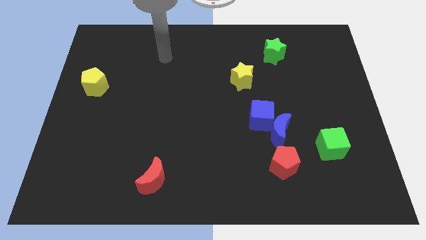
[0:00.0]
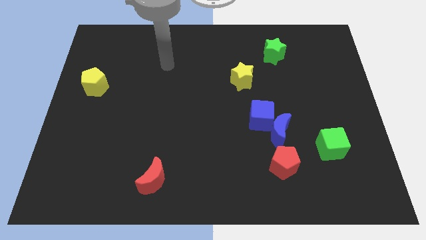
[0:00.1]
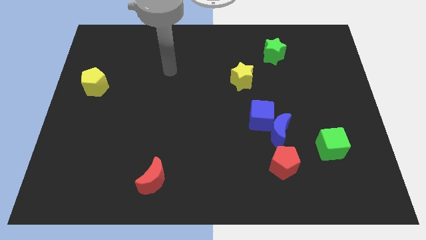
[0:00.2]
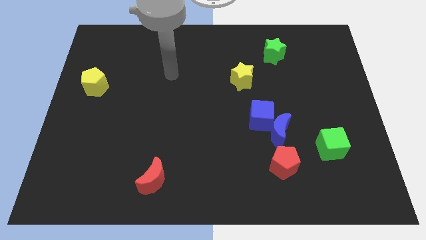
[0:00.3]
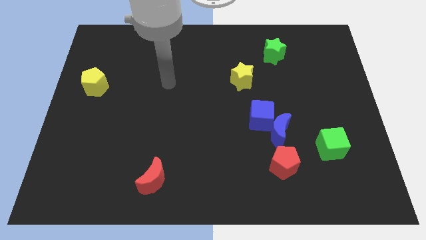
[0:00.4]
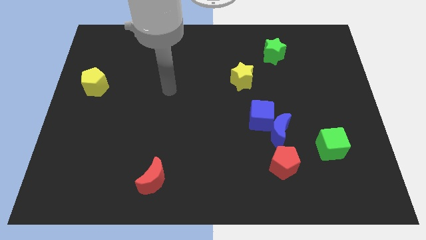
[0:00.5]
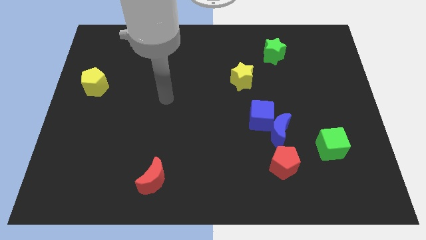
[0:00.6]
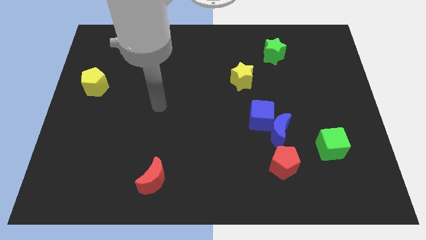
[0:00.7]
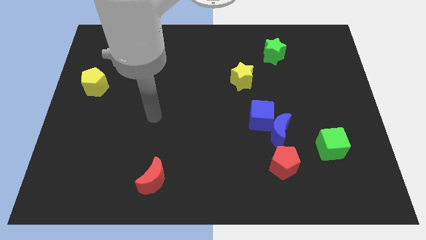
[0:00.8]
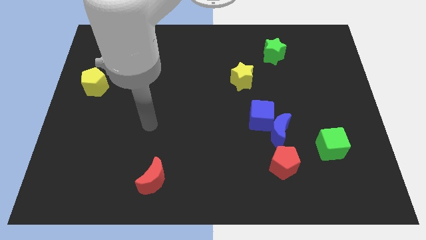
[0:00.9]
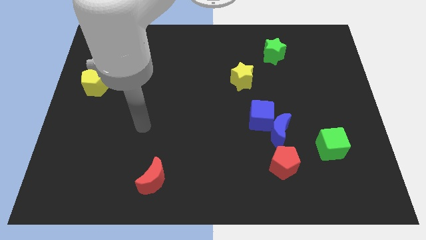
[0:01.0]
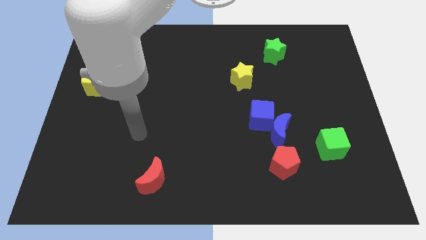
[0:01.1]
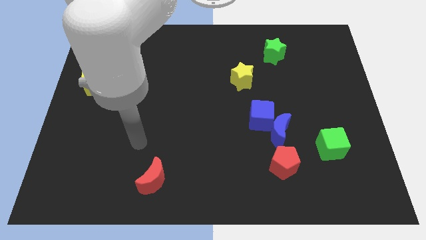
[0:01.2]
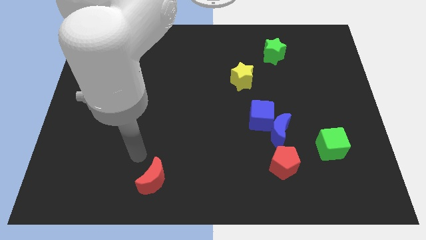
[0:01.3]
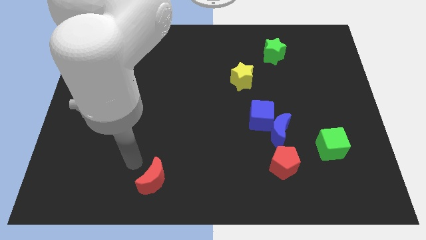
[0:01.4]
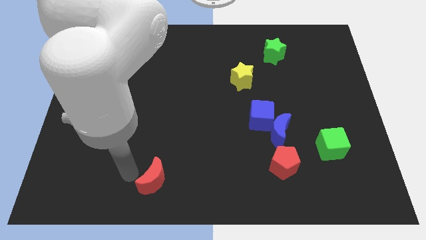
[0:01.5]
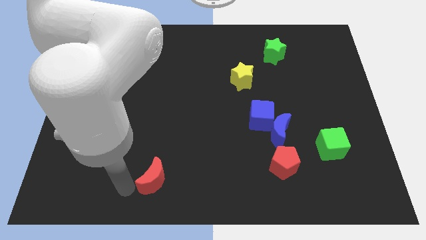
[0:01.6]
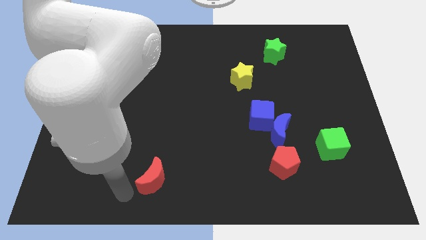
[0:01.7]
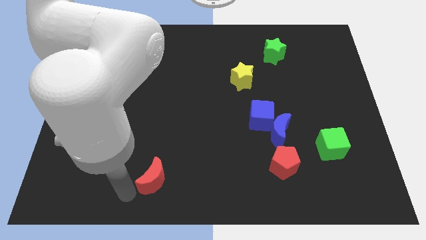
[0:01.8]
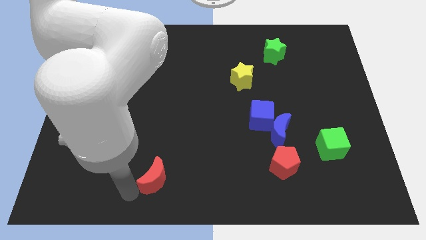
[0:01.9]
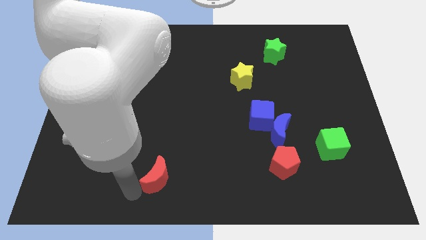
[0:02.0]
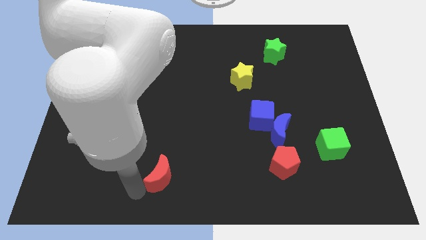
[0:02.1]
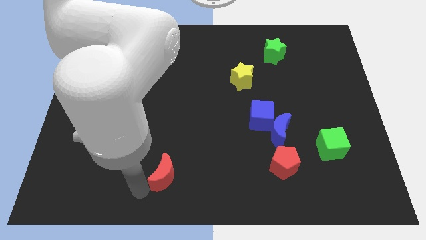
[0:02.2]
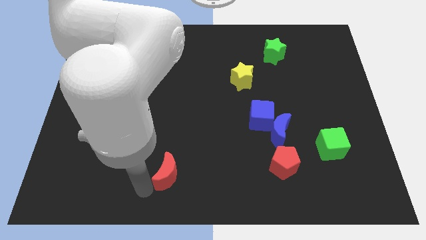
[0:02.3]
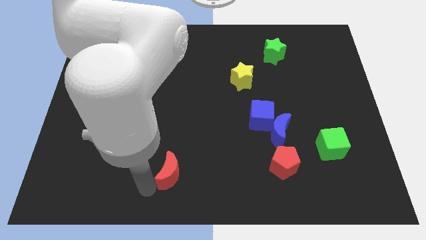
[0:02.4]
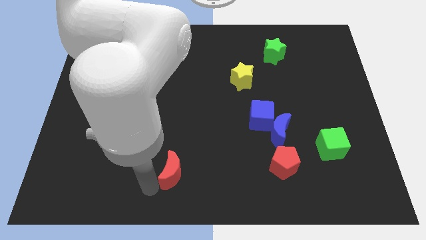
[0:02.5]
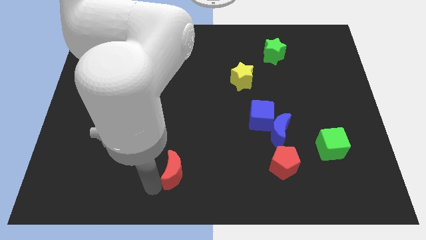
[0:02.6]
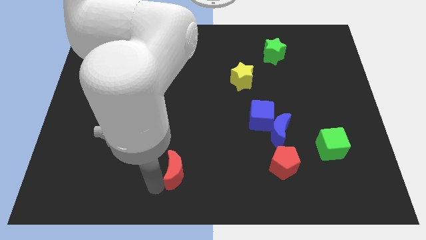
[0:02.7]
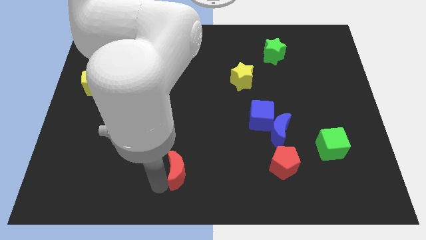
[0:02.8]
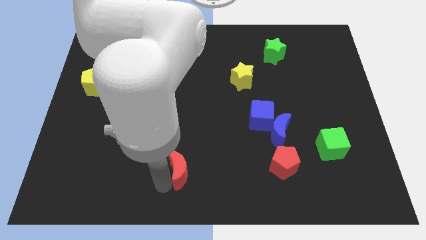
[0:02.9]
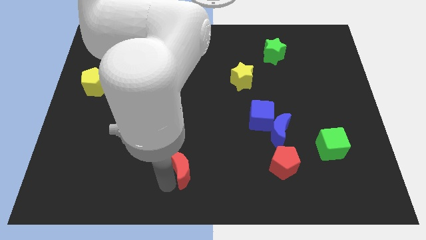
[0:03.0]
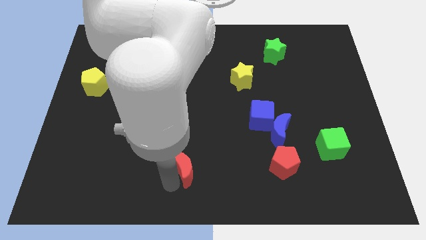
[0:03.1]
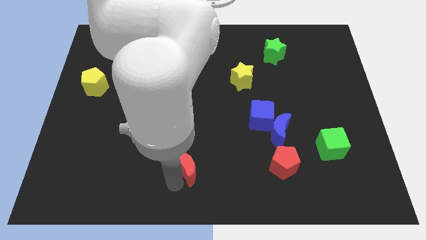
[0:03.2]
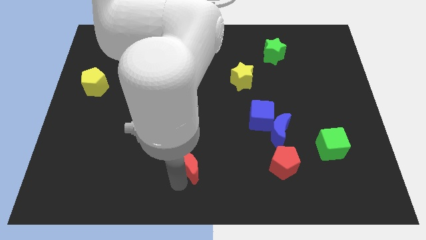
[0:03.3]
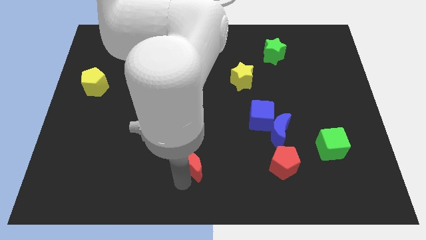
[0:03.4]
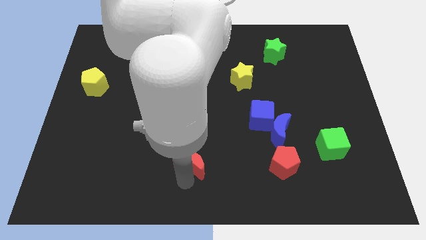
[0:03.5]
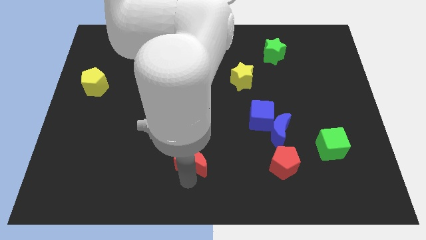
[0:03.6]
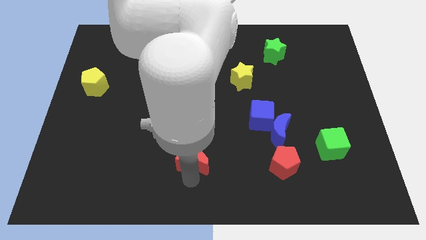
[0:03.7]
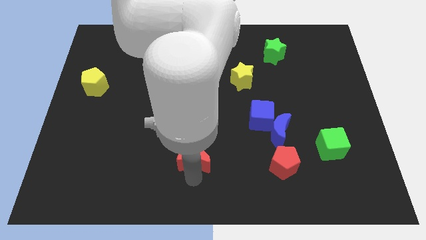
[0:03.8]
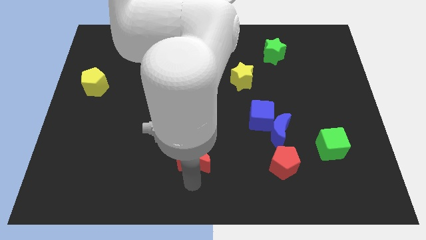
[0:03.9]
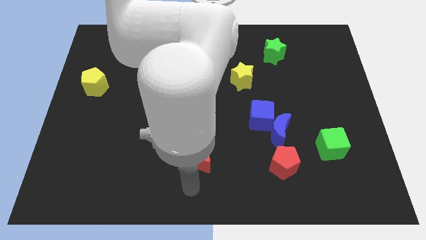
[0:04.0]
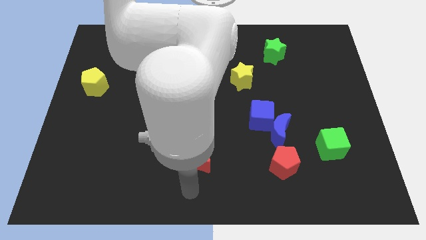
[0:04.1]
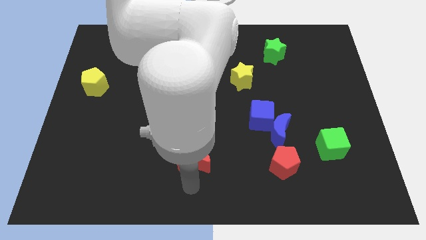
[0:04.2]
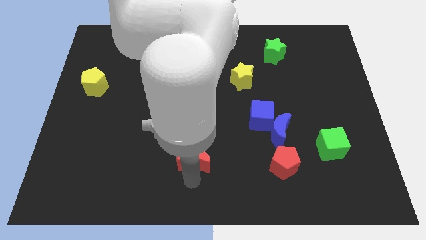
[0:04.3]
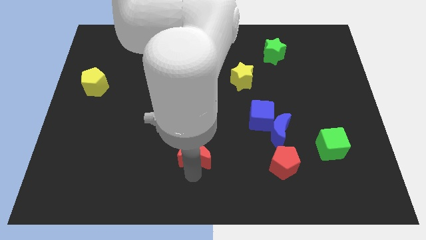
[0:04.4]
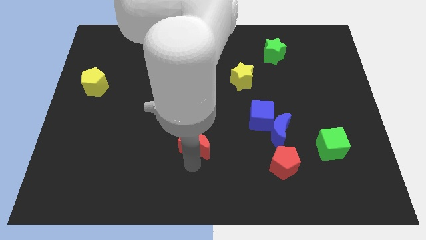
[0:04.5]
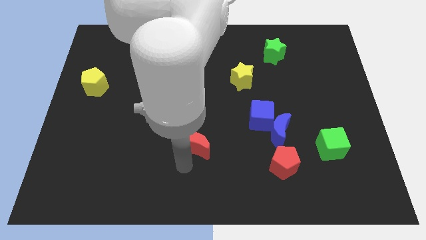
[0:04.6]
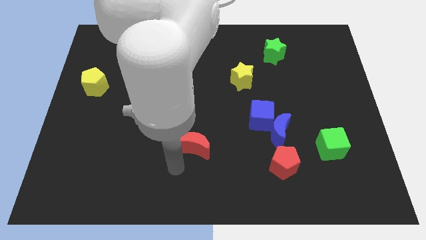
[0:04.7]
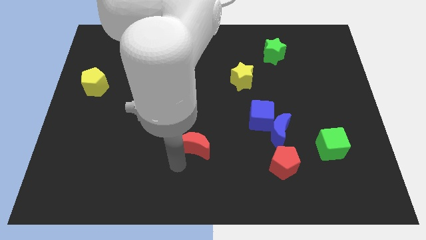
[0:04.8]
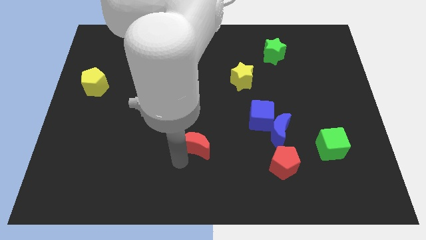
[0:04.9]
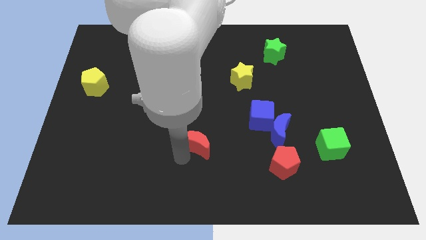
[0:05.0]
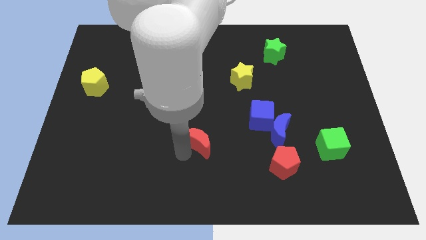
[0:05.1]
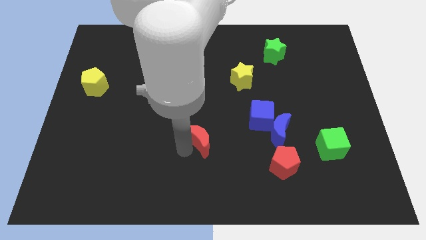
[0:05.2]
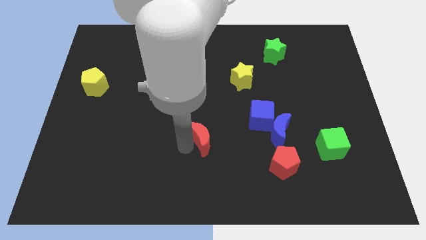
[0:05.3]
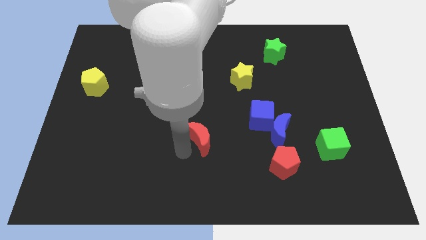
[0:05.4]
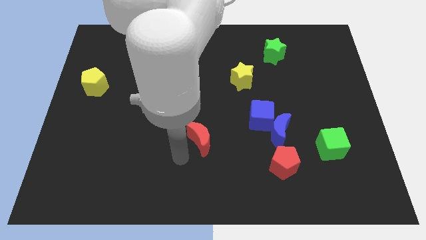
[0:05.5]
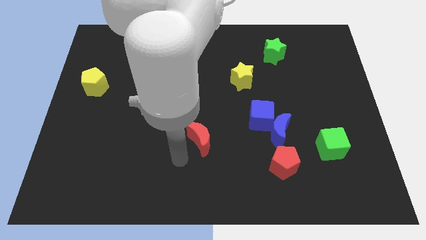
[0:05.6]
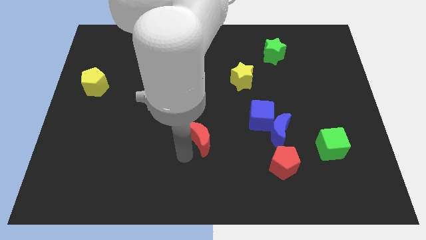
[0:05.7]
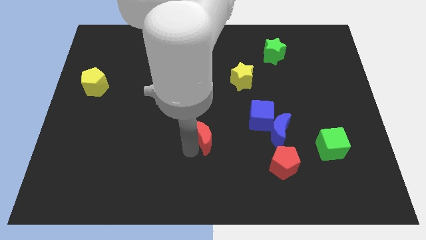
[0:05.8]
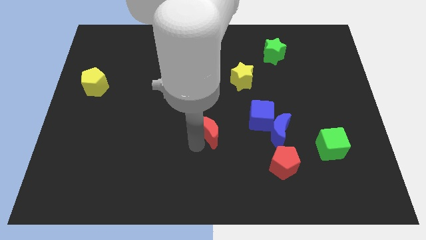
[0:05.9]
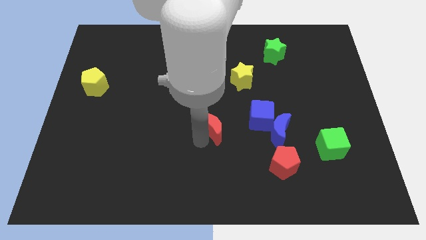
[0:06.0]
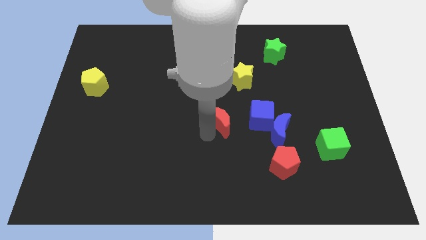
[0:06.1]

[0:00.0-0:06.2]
slide the red moon diagonally upwards and to the right

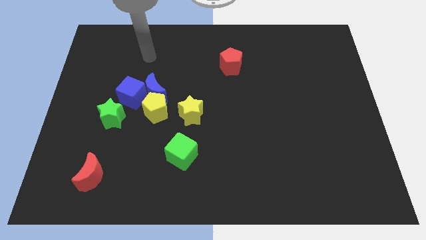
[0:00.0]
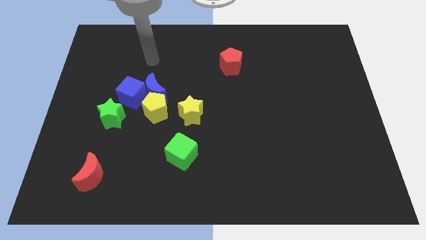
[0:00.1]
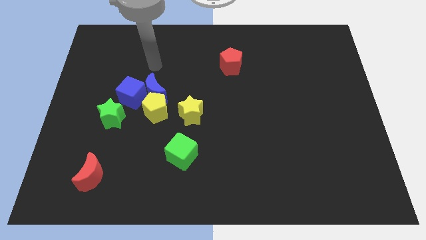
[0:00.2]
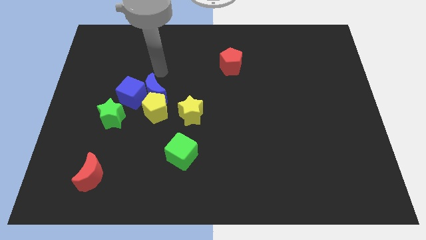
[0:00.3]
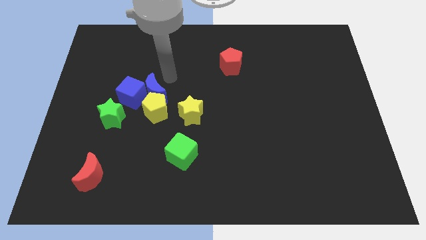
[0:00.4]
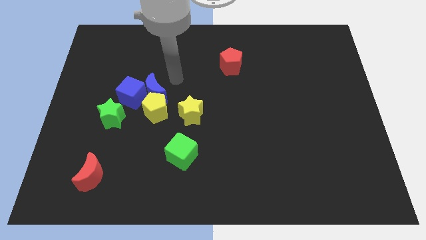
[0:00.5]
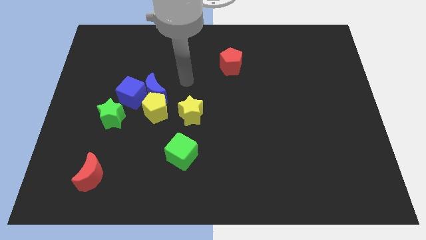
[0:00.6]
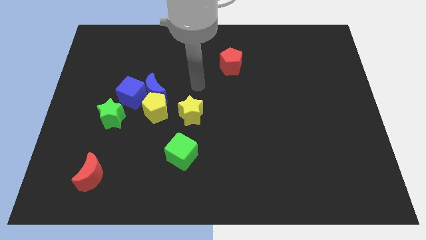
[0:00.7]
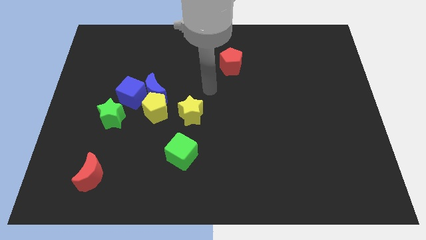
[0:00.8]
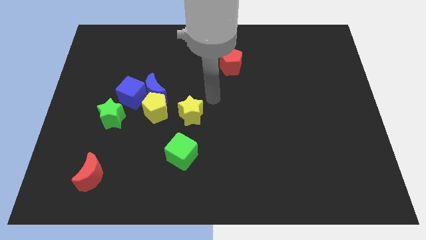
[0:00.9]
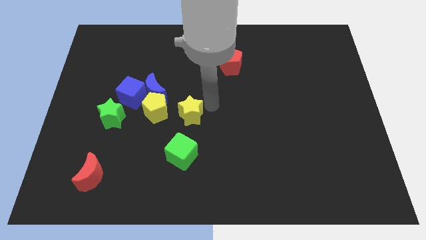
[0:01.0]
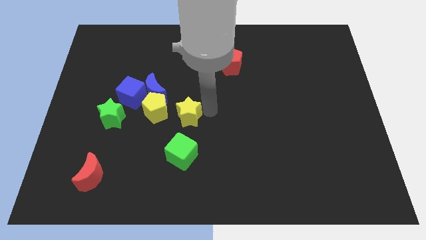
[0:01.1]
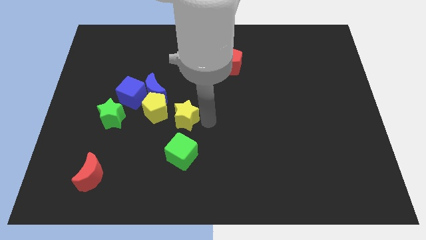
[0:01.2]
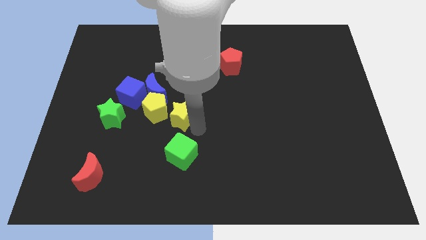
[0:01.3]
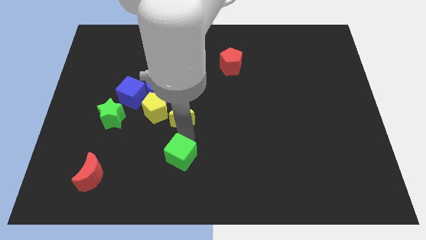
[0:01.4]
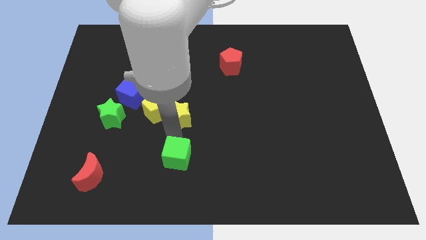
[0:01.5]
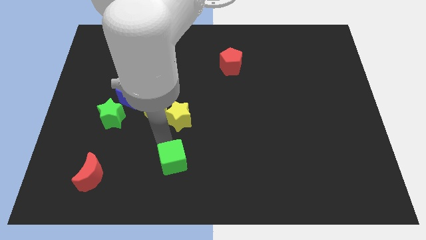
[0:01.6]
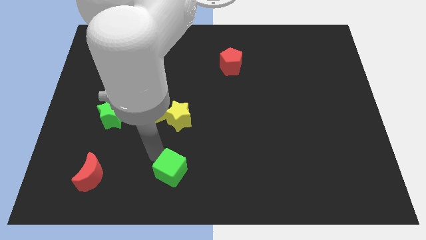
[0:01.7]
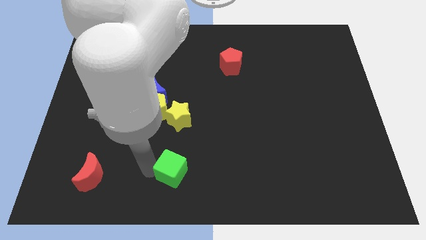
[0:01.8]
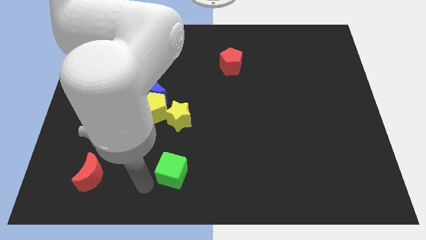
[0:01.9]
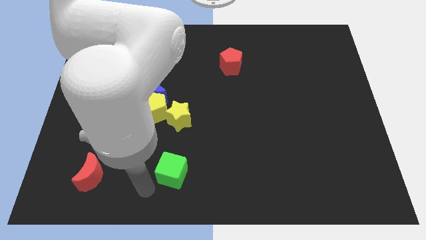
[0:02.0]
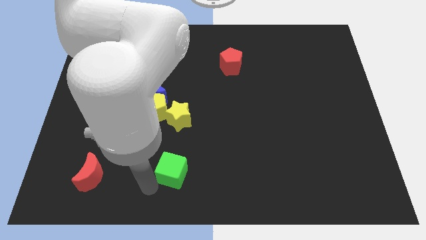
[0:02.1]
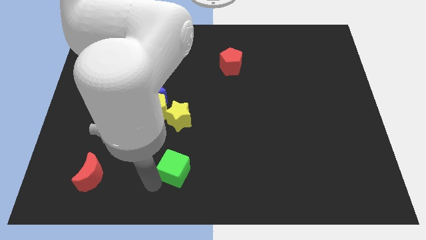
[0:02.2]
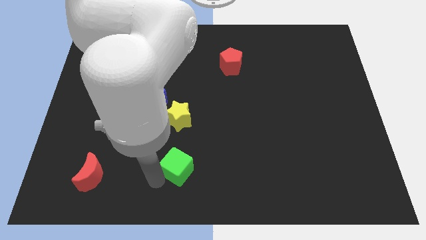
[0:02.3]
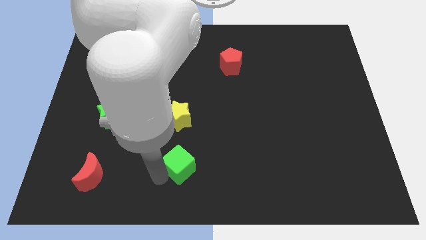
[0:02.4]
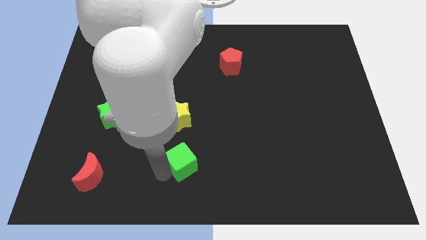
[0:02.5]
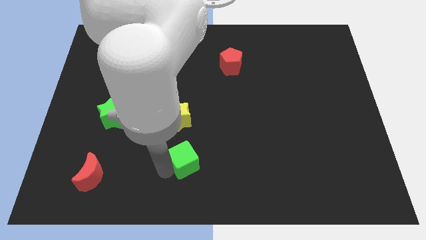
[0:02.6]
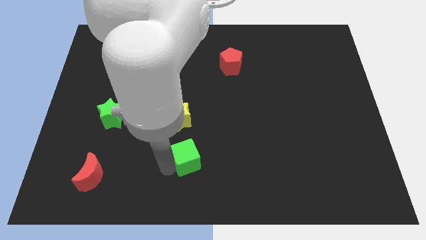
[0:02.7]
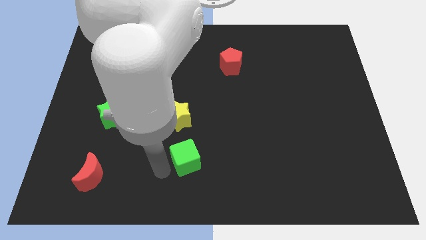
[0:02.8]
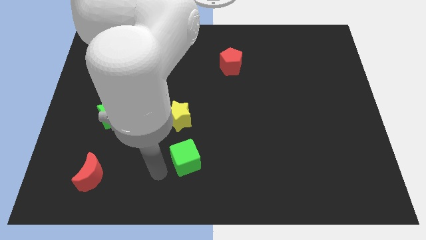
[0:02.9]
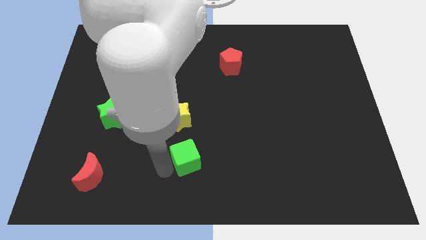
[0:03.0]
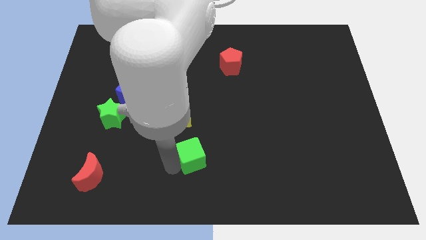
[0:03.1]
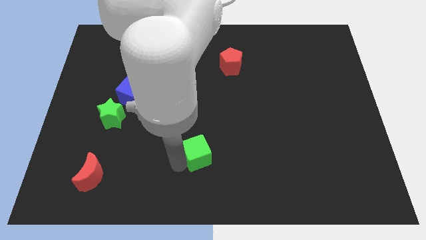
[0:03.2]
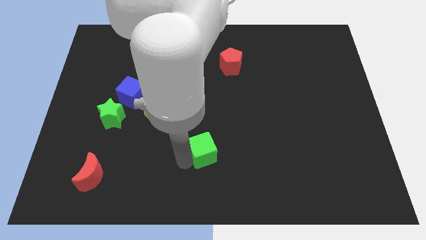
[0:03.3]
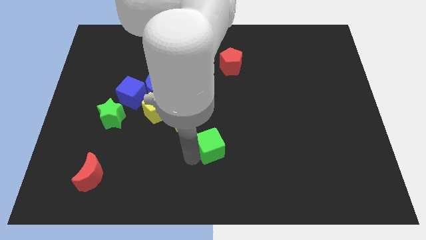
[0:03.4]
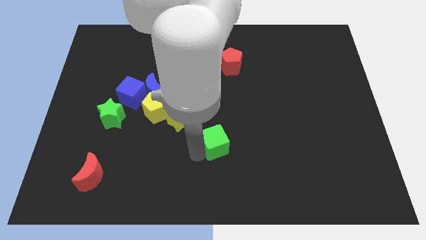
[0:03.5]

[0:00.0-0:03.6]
push the green cube to the right slightly
